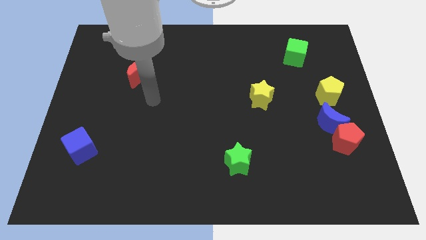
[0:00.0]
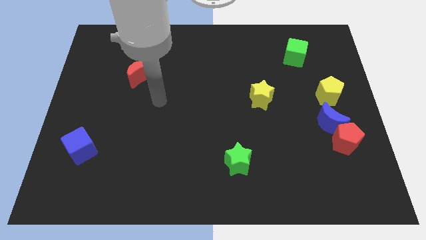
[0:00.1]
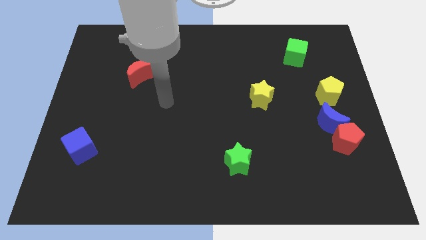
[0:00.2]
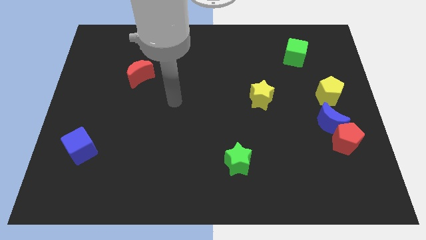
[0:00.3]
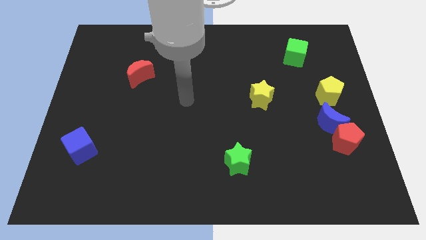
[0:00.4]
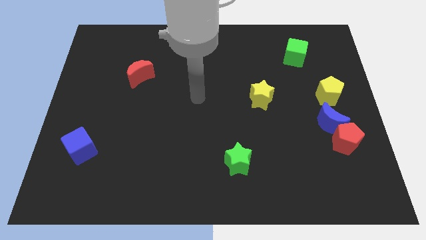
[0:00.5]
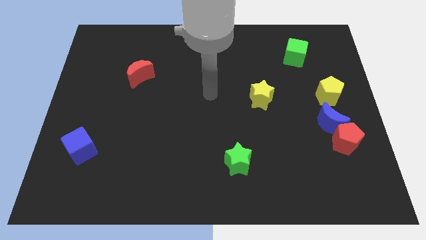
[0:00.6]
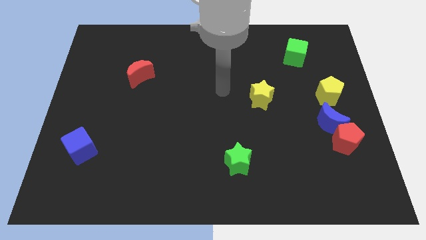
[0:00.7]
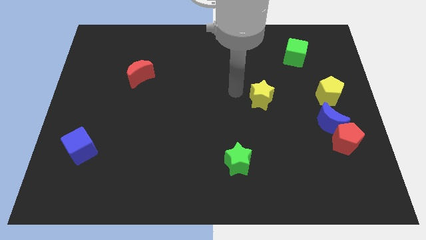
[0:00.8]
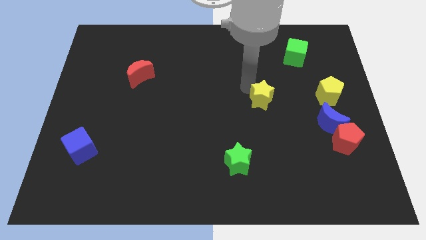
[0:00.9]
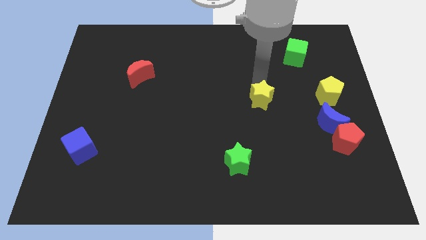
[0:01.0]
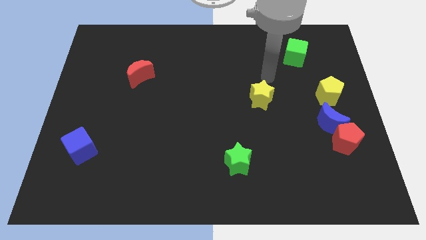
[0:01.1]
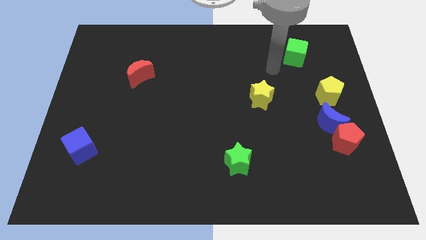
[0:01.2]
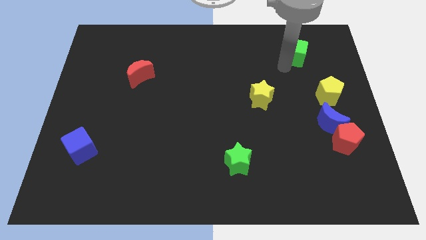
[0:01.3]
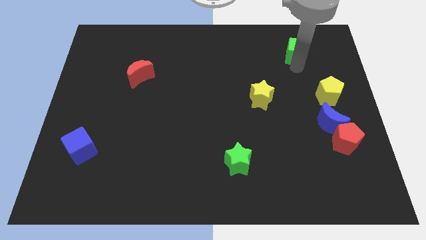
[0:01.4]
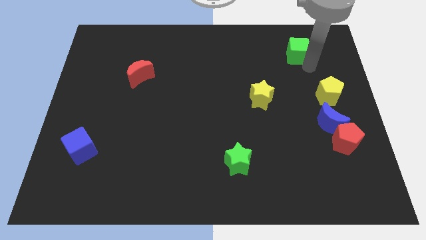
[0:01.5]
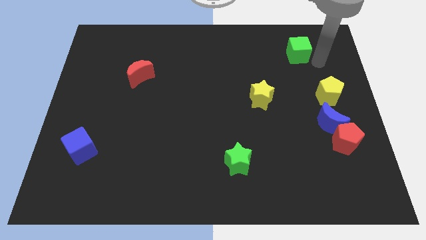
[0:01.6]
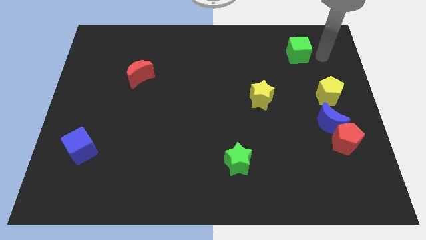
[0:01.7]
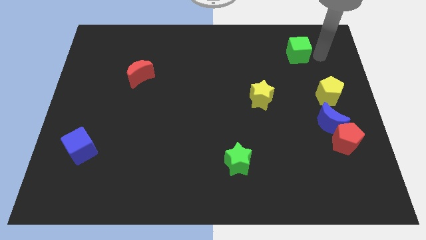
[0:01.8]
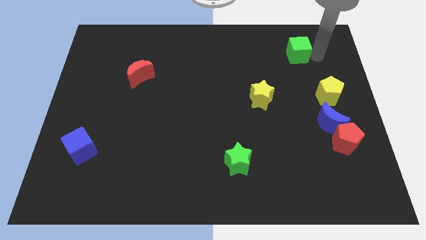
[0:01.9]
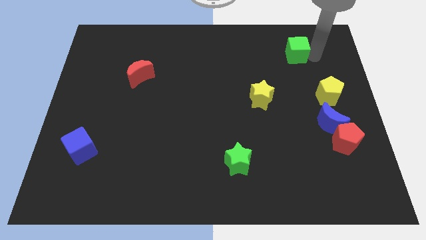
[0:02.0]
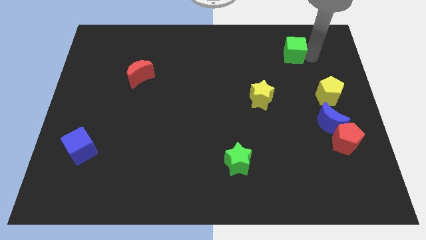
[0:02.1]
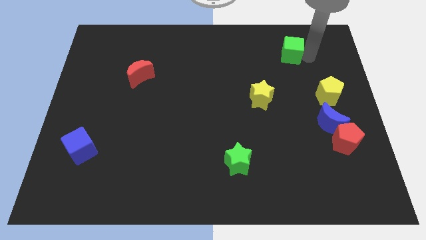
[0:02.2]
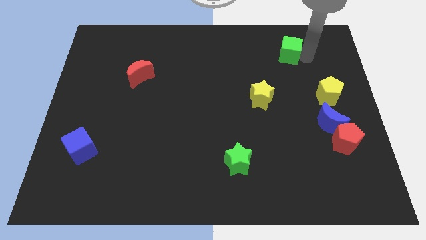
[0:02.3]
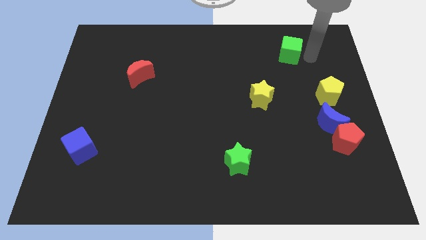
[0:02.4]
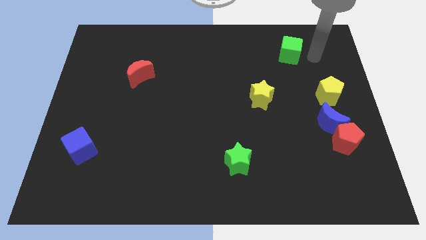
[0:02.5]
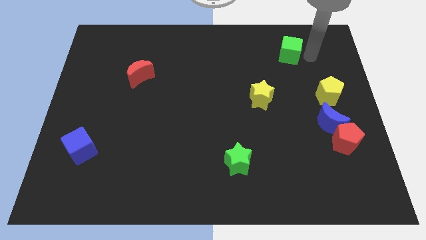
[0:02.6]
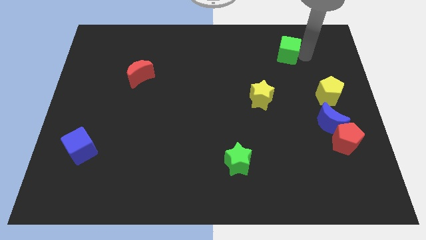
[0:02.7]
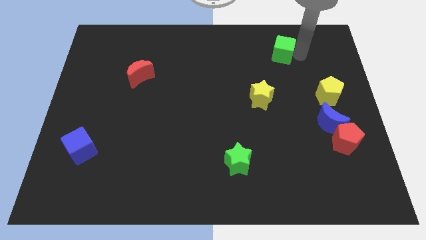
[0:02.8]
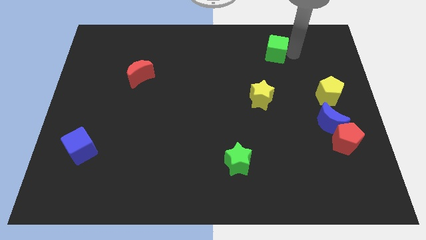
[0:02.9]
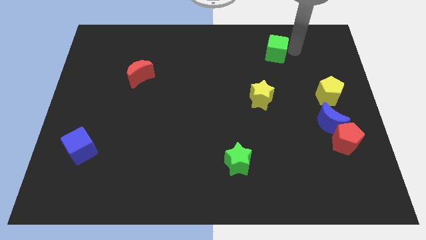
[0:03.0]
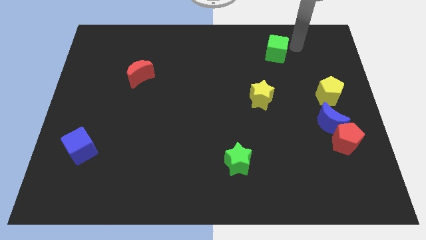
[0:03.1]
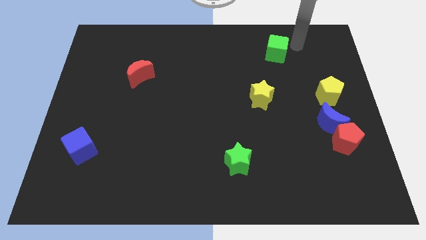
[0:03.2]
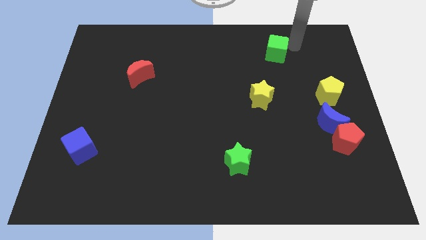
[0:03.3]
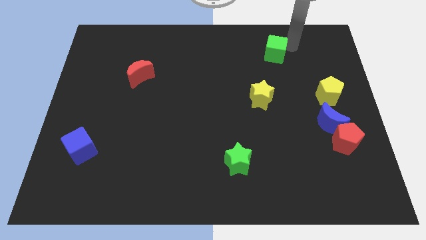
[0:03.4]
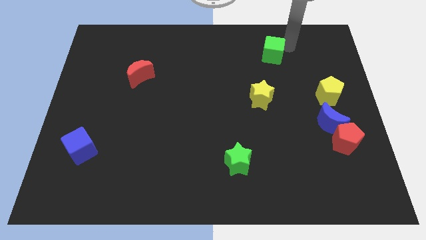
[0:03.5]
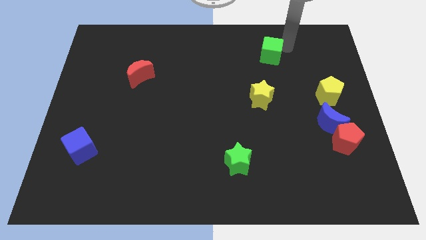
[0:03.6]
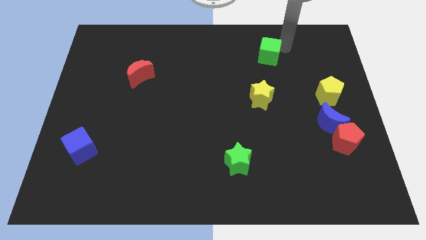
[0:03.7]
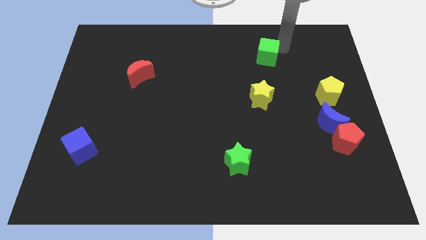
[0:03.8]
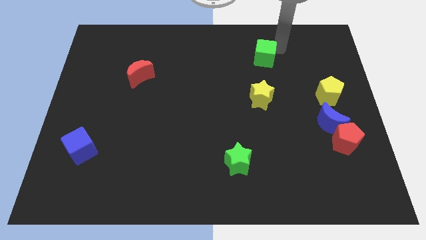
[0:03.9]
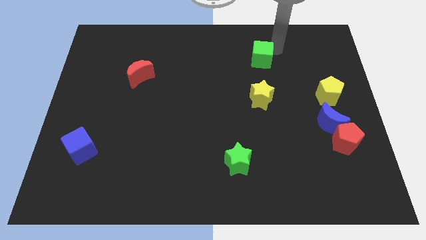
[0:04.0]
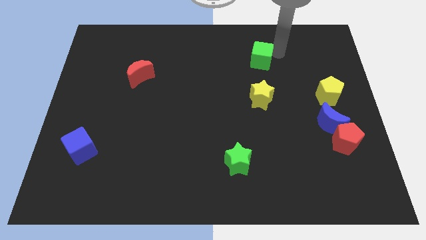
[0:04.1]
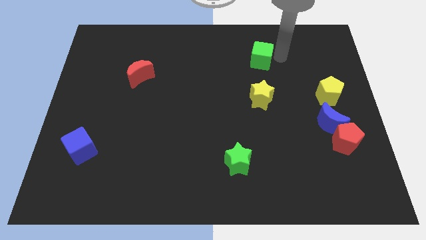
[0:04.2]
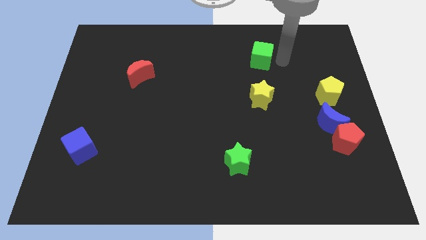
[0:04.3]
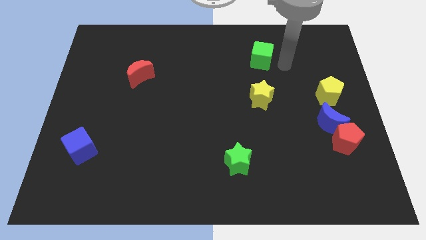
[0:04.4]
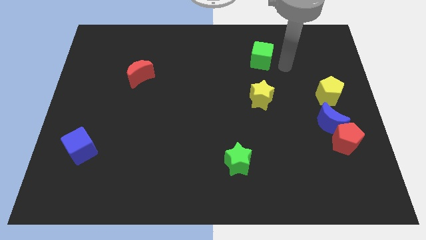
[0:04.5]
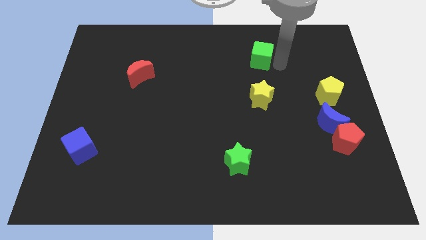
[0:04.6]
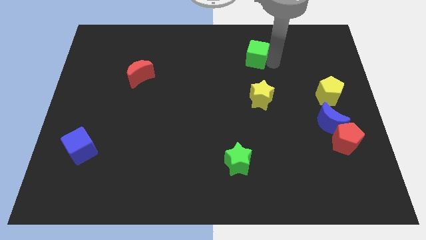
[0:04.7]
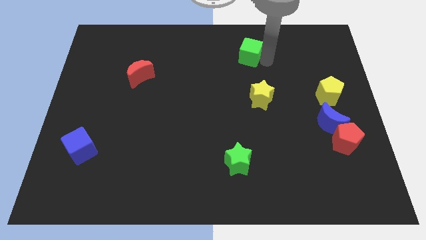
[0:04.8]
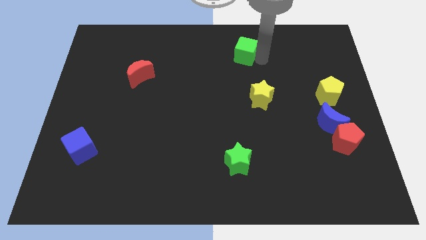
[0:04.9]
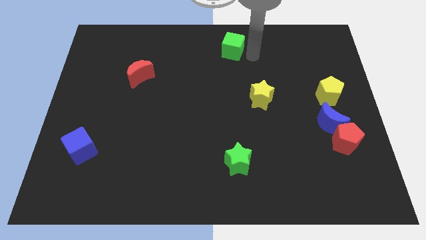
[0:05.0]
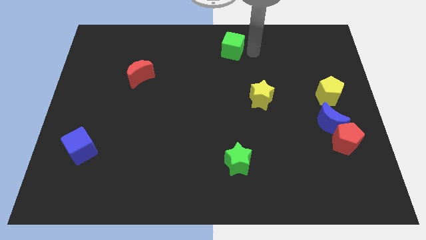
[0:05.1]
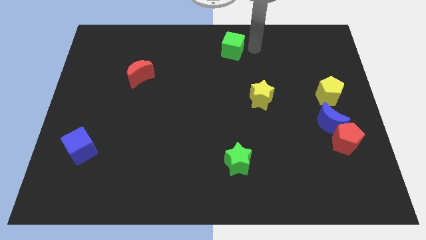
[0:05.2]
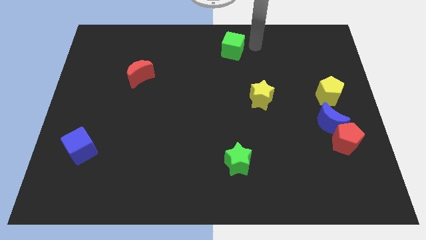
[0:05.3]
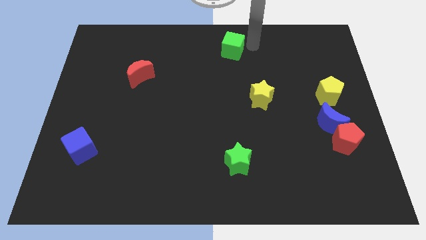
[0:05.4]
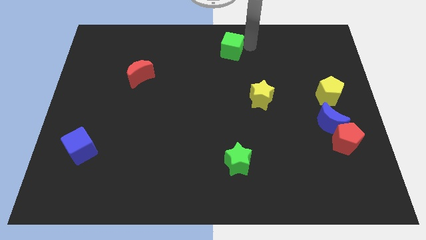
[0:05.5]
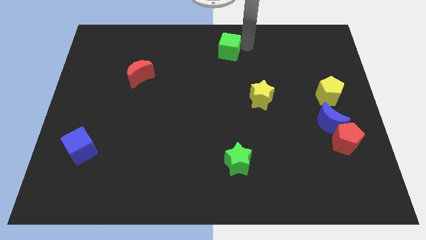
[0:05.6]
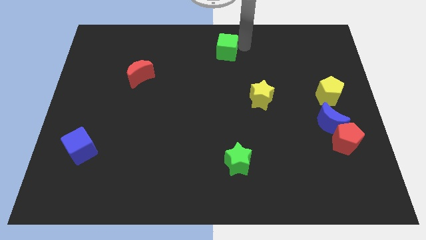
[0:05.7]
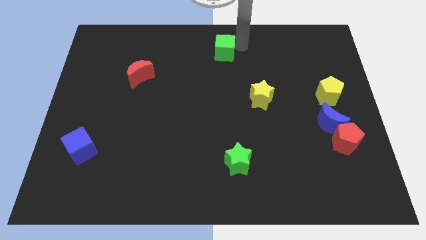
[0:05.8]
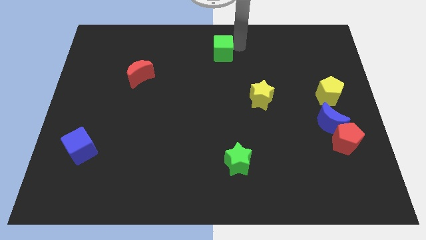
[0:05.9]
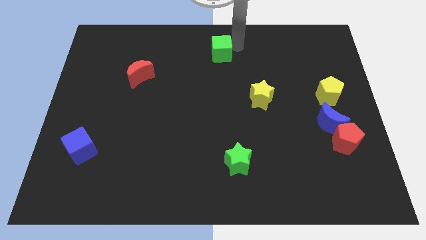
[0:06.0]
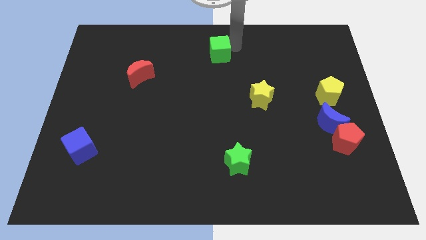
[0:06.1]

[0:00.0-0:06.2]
push the green cube left

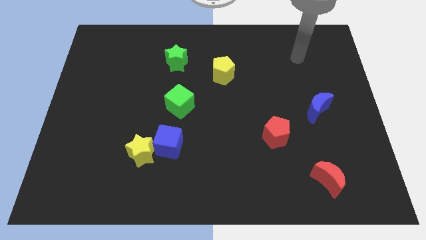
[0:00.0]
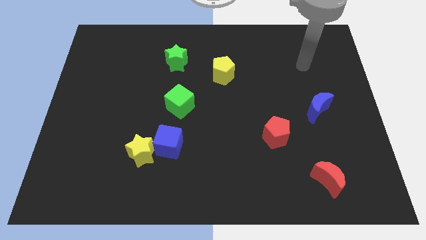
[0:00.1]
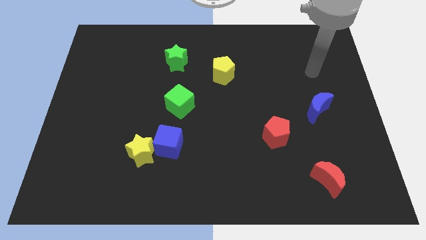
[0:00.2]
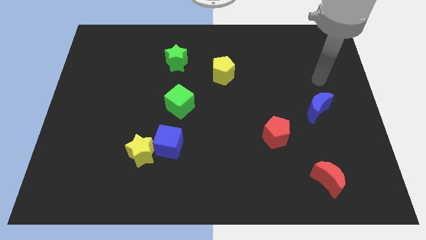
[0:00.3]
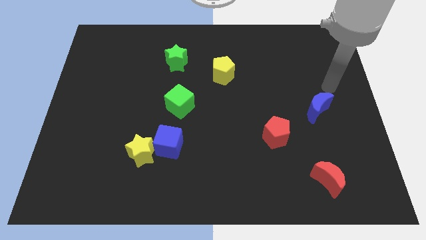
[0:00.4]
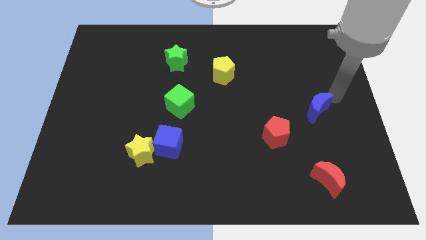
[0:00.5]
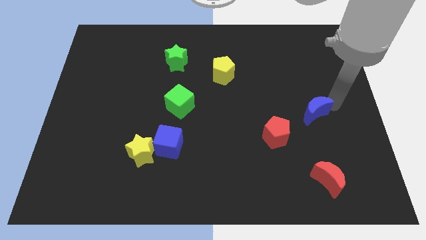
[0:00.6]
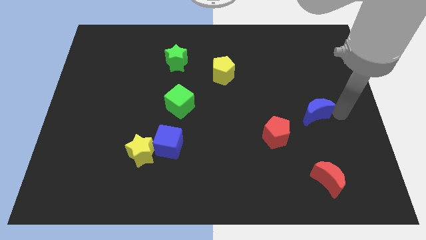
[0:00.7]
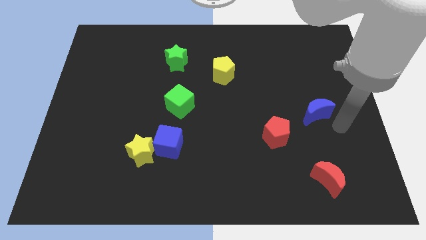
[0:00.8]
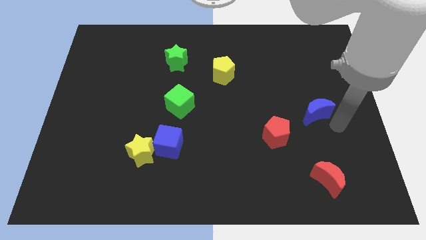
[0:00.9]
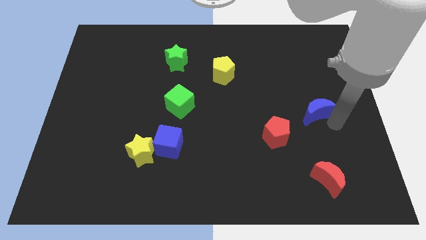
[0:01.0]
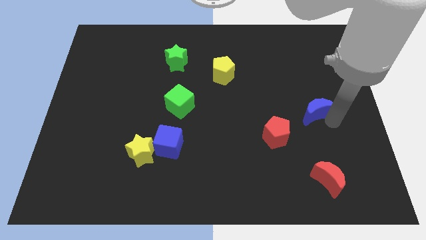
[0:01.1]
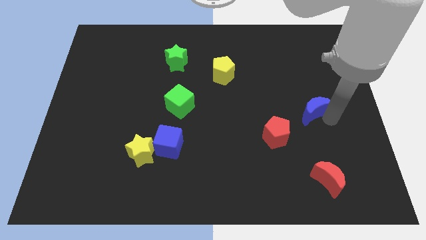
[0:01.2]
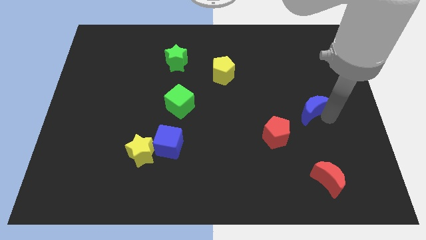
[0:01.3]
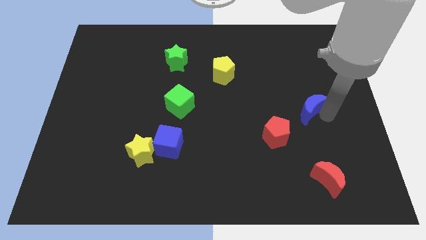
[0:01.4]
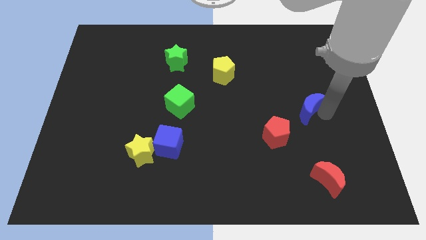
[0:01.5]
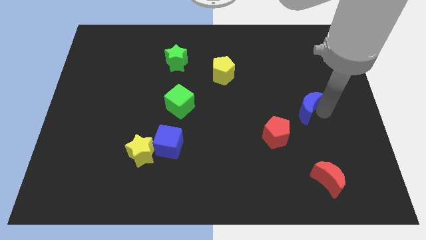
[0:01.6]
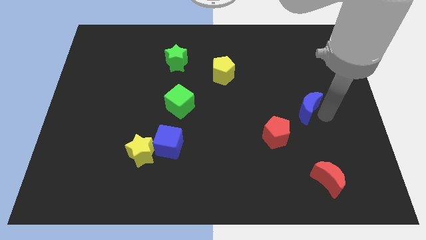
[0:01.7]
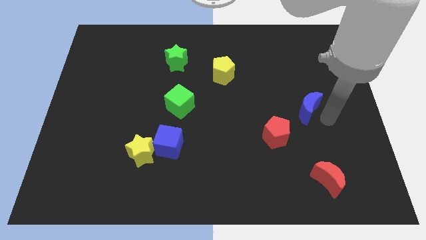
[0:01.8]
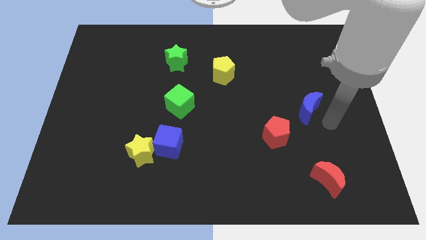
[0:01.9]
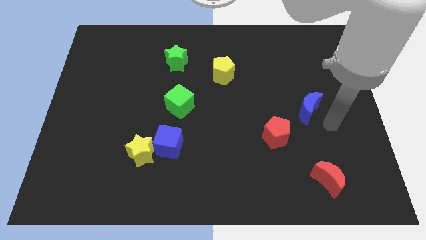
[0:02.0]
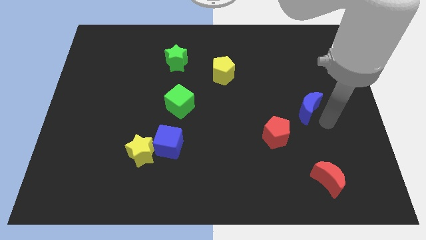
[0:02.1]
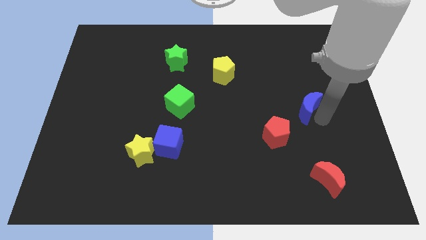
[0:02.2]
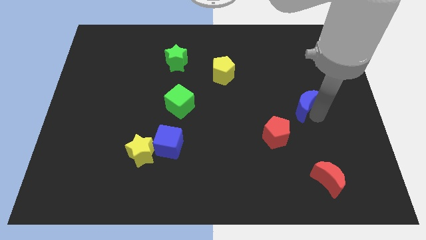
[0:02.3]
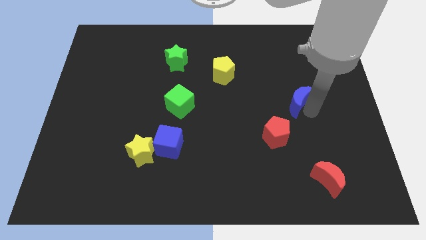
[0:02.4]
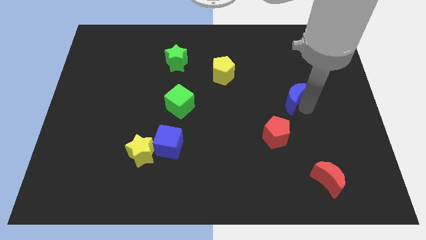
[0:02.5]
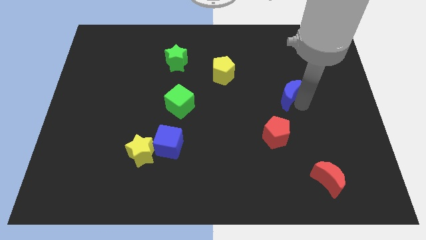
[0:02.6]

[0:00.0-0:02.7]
slightly push the blue moon up and left diagonally
